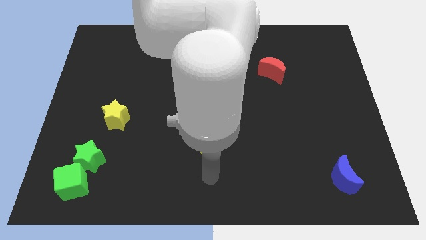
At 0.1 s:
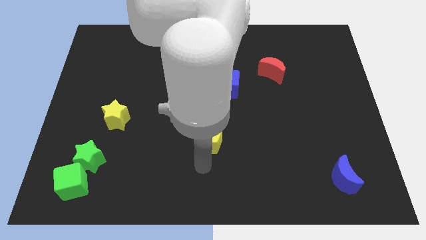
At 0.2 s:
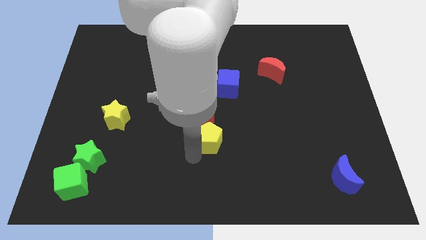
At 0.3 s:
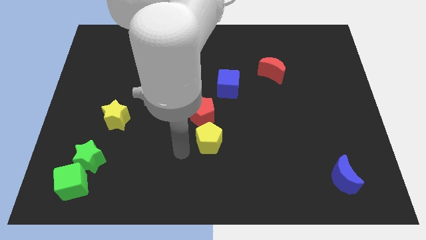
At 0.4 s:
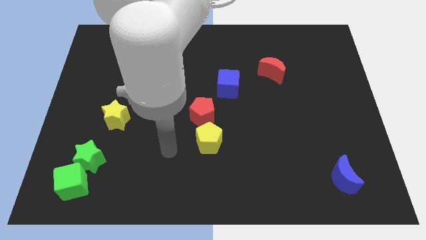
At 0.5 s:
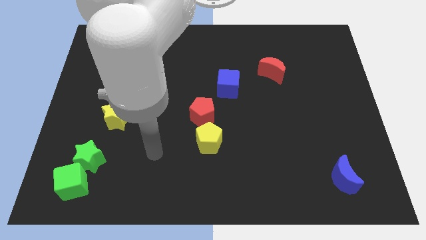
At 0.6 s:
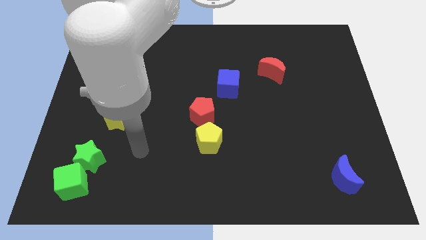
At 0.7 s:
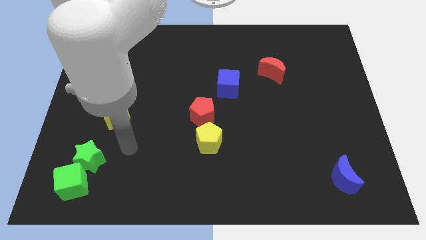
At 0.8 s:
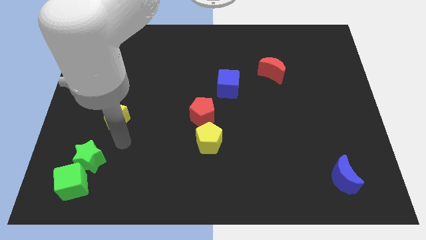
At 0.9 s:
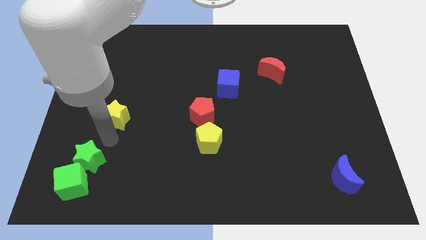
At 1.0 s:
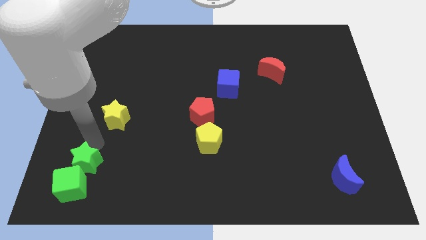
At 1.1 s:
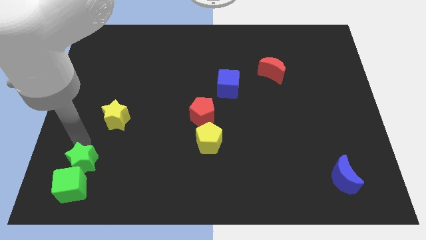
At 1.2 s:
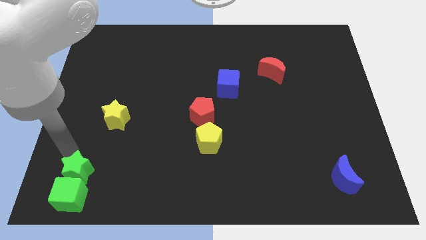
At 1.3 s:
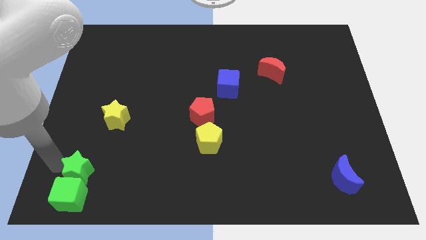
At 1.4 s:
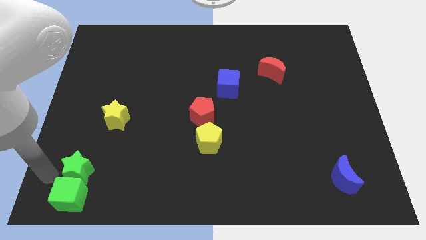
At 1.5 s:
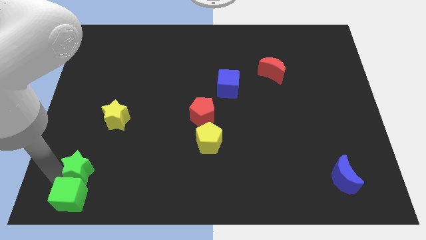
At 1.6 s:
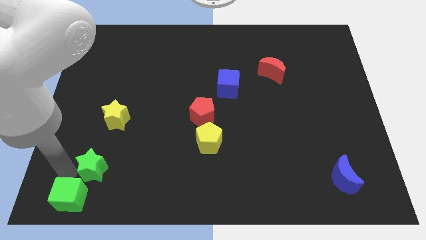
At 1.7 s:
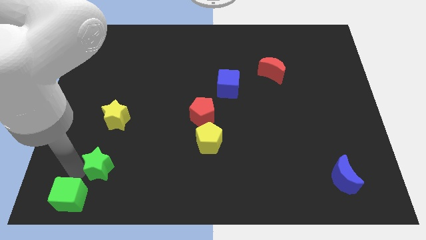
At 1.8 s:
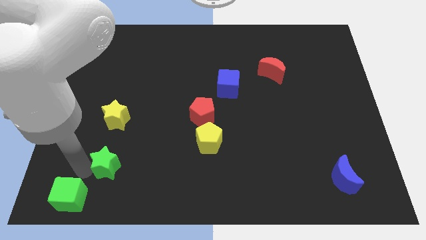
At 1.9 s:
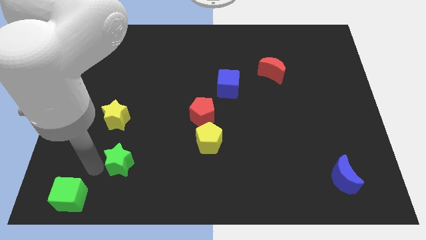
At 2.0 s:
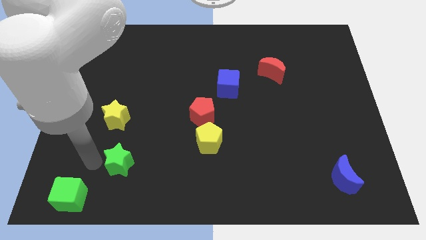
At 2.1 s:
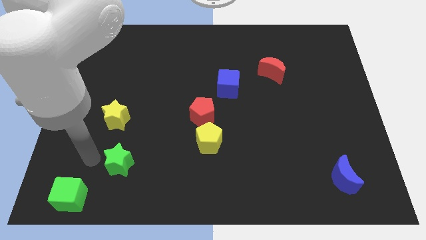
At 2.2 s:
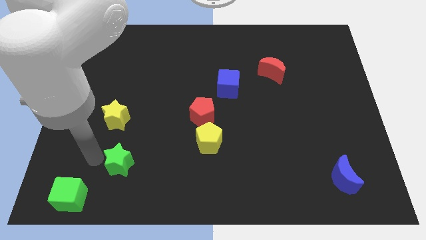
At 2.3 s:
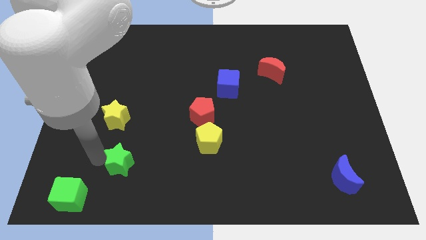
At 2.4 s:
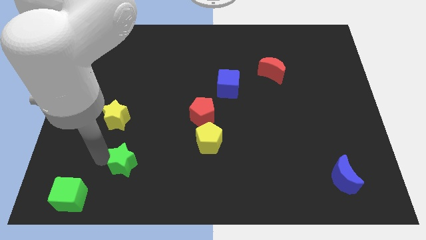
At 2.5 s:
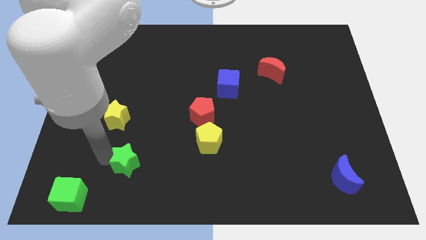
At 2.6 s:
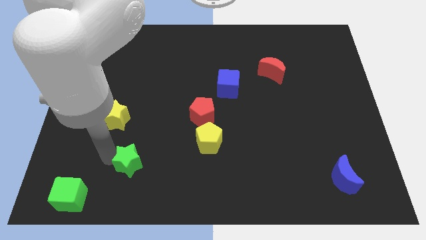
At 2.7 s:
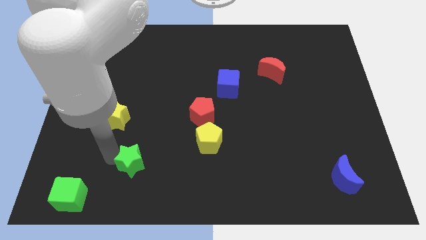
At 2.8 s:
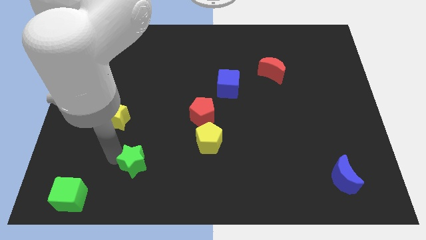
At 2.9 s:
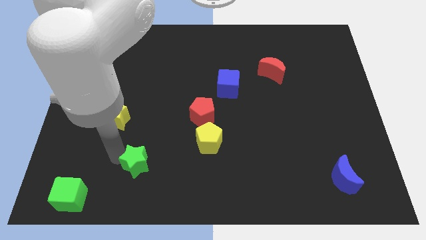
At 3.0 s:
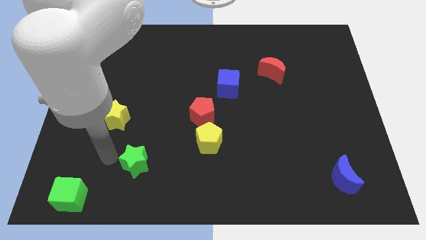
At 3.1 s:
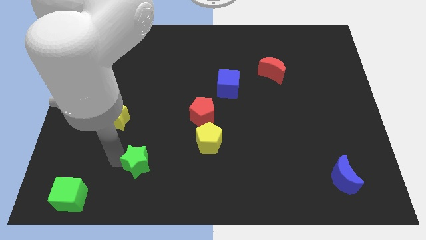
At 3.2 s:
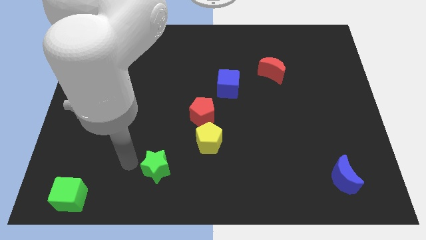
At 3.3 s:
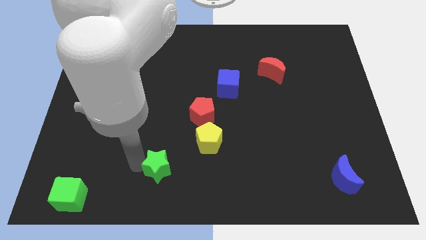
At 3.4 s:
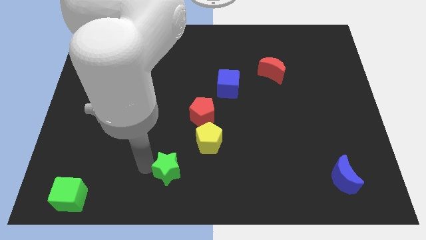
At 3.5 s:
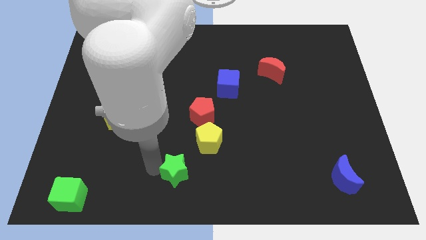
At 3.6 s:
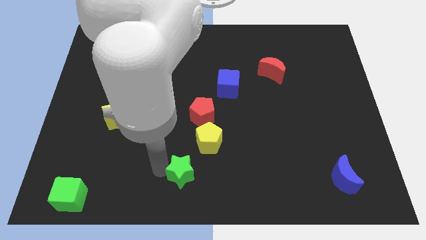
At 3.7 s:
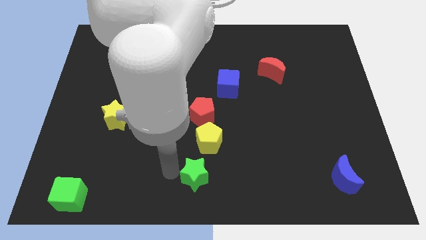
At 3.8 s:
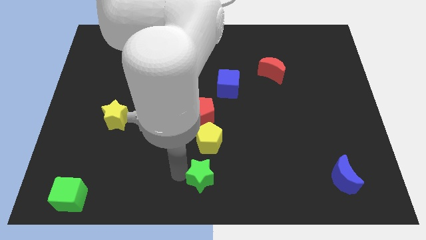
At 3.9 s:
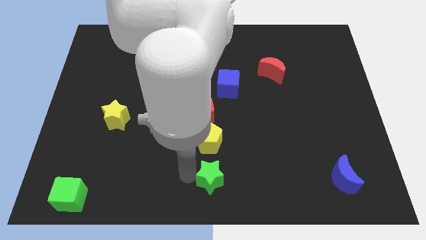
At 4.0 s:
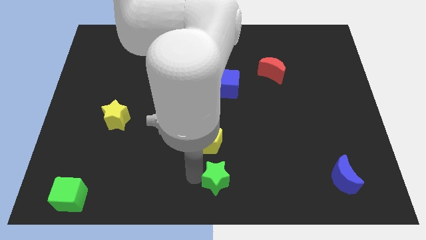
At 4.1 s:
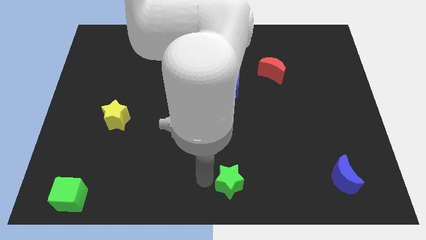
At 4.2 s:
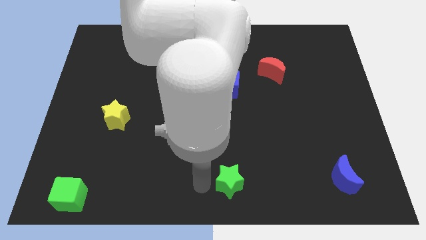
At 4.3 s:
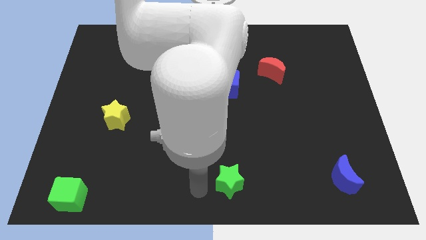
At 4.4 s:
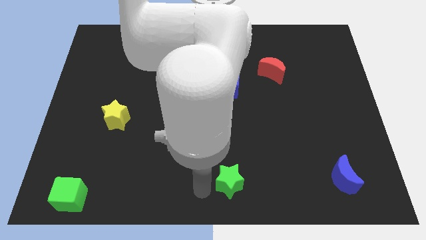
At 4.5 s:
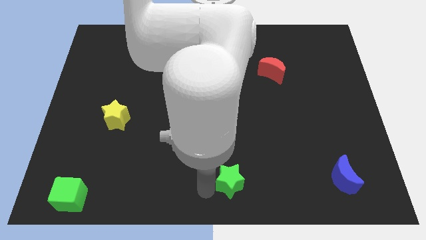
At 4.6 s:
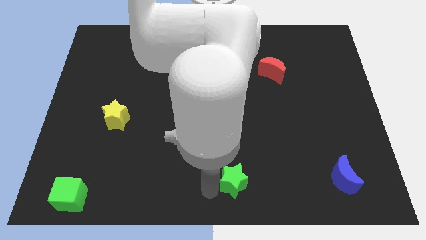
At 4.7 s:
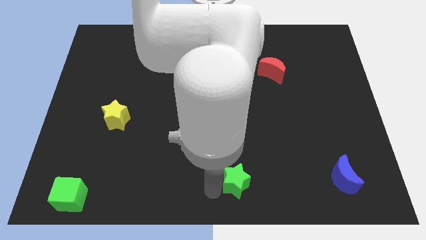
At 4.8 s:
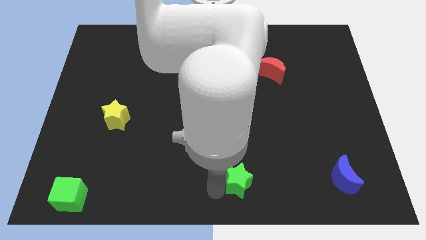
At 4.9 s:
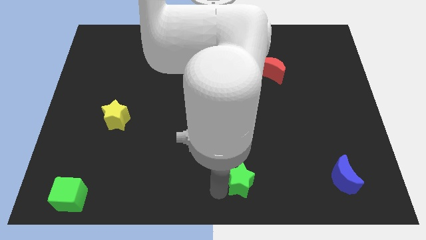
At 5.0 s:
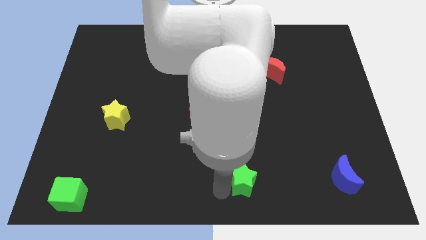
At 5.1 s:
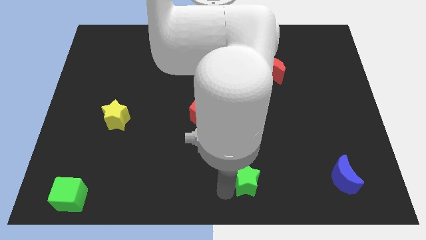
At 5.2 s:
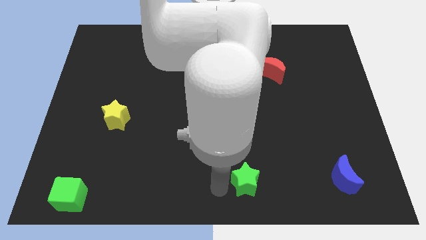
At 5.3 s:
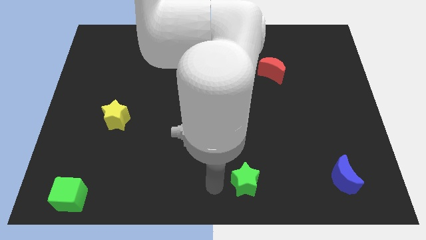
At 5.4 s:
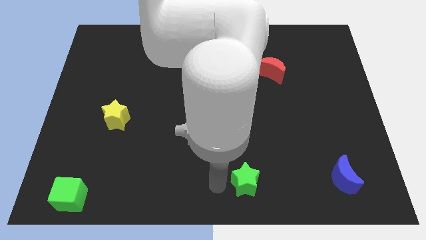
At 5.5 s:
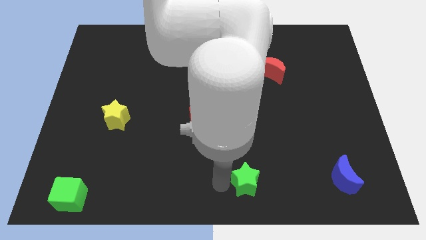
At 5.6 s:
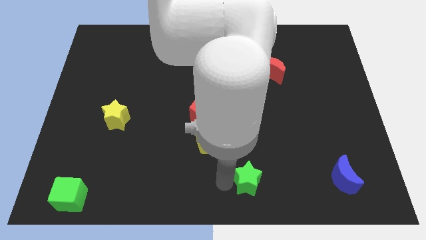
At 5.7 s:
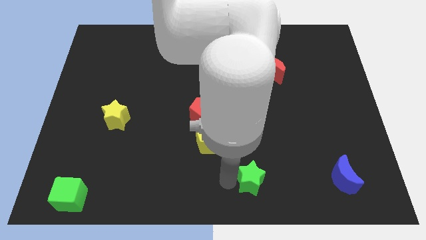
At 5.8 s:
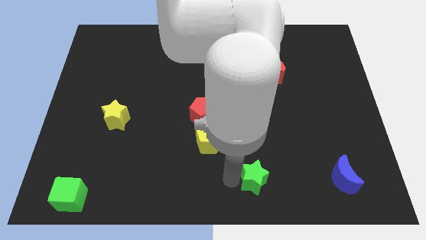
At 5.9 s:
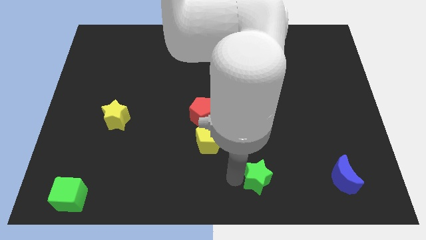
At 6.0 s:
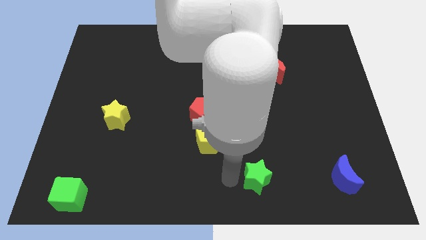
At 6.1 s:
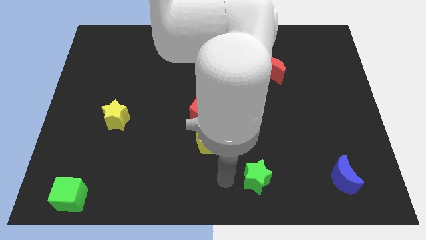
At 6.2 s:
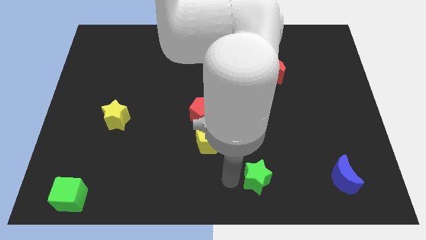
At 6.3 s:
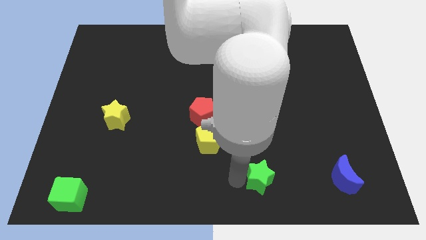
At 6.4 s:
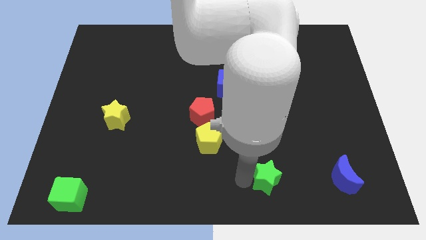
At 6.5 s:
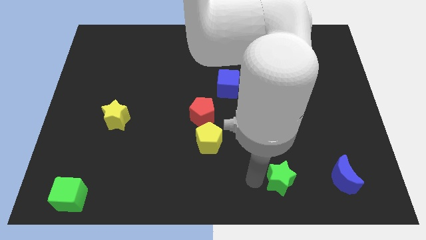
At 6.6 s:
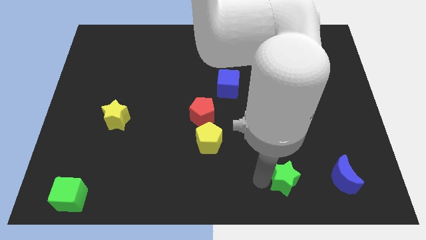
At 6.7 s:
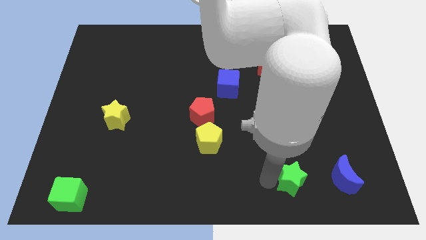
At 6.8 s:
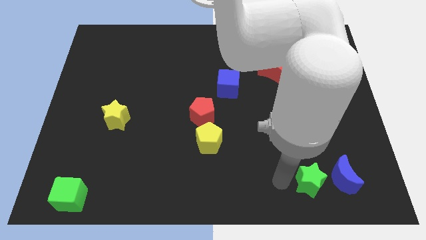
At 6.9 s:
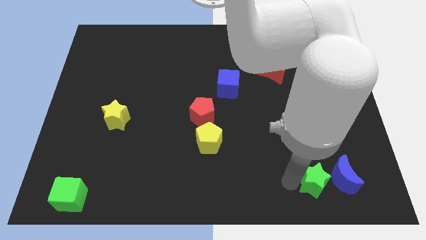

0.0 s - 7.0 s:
move the green star next to the blue moon

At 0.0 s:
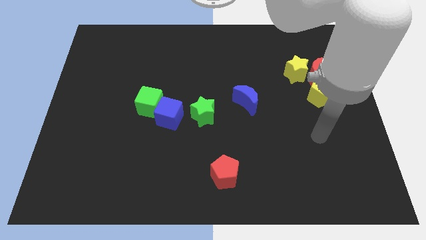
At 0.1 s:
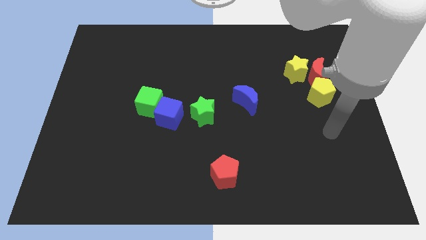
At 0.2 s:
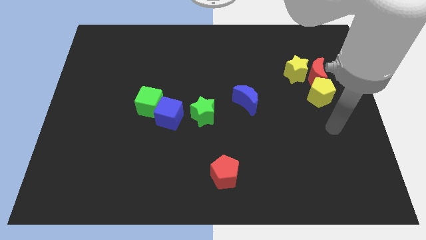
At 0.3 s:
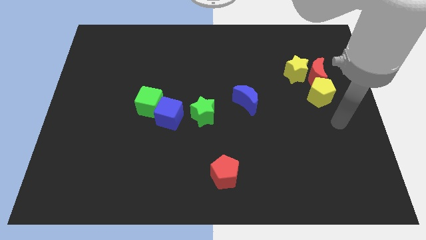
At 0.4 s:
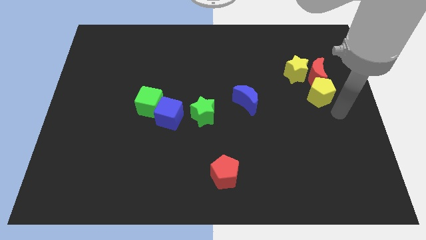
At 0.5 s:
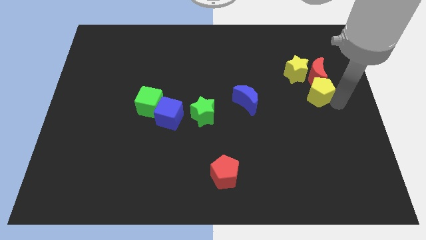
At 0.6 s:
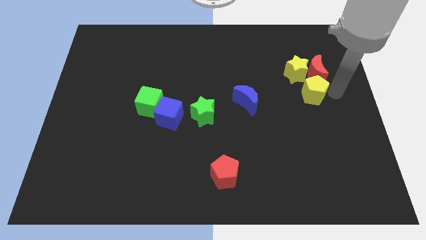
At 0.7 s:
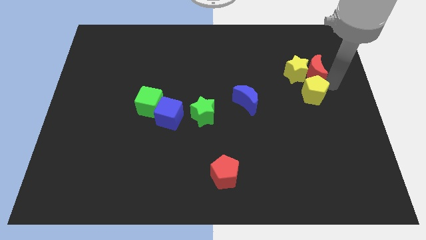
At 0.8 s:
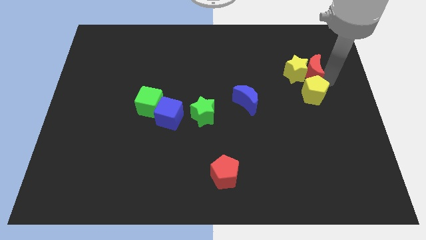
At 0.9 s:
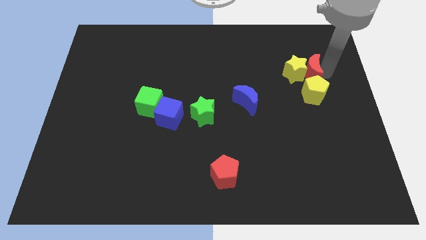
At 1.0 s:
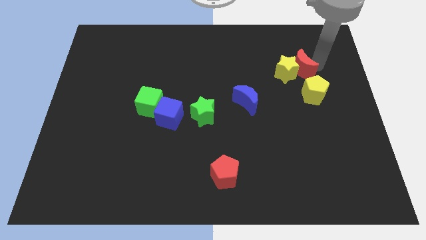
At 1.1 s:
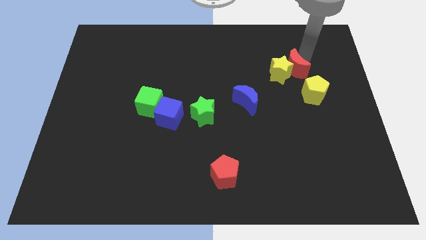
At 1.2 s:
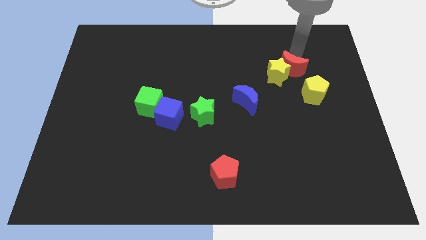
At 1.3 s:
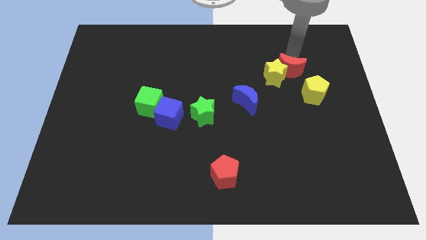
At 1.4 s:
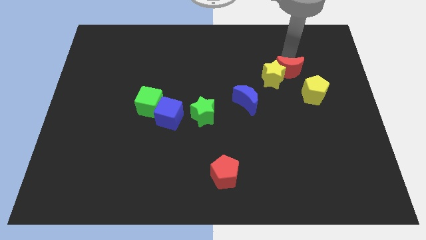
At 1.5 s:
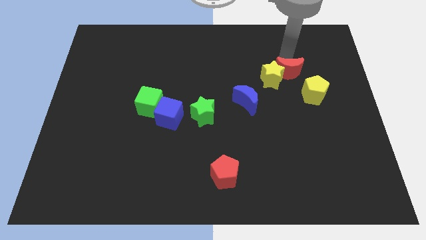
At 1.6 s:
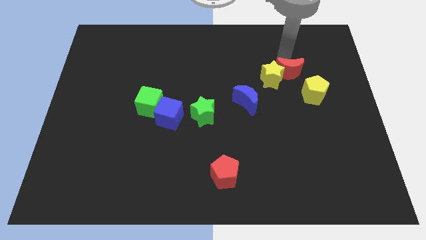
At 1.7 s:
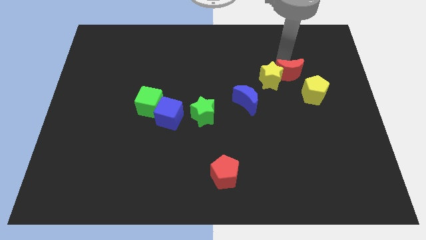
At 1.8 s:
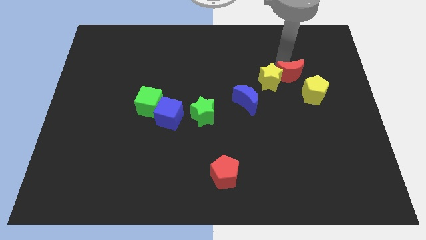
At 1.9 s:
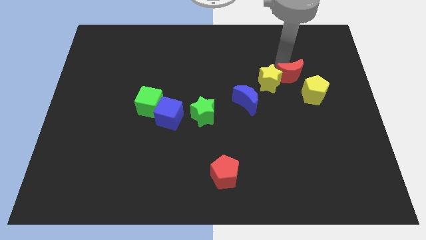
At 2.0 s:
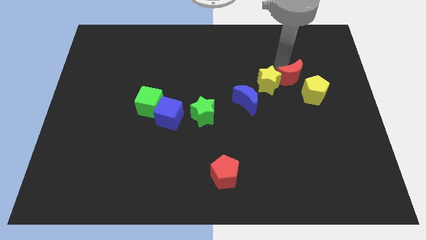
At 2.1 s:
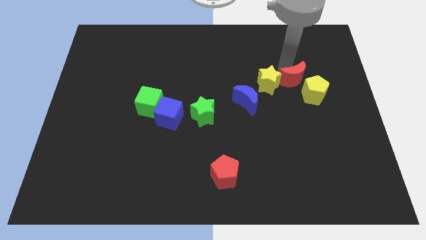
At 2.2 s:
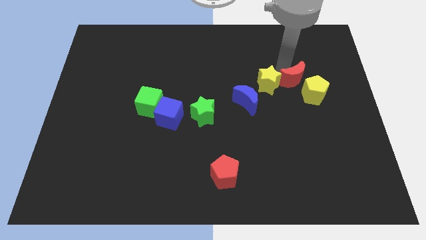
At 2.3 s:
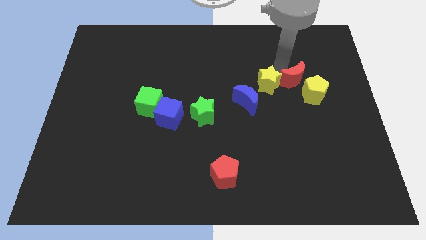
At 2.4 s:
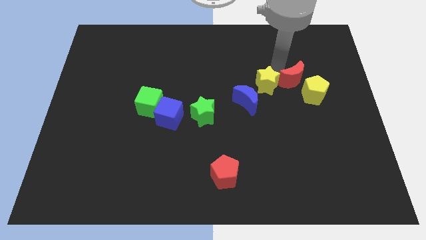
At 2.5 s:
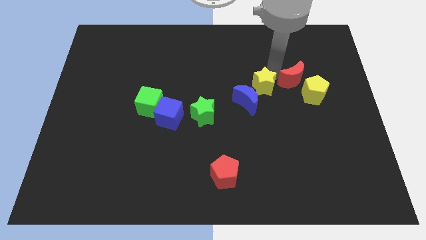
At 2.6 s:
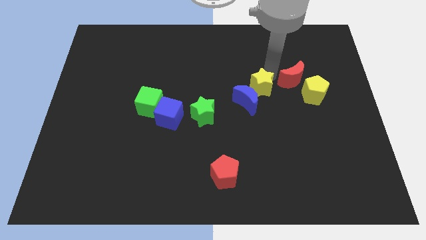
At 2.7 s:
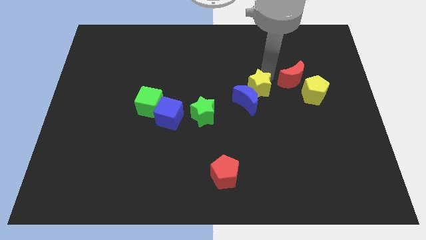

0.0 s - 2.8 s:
move the yellow star close to the blue moon
